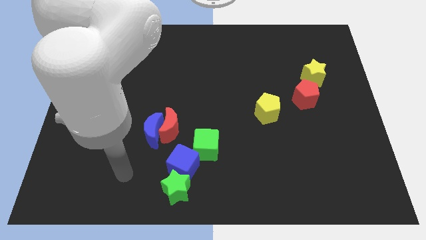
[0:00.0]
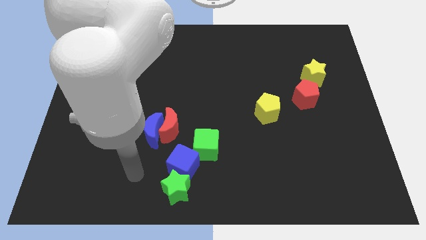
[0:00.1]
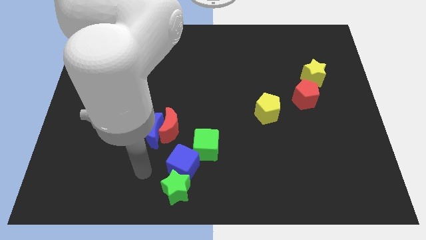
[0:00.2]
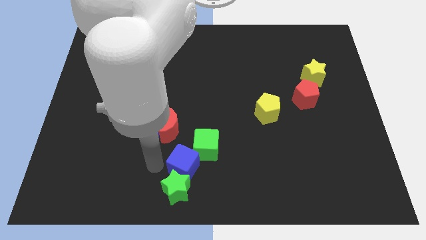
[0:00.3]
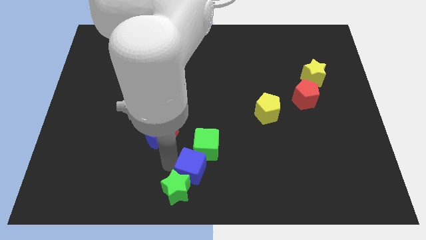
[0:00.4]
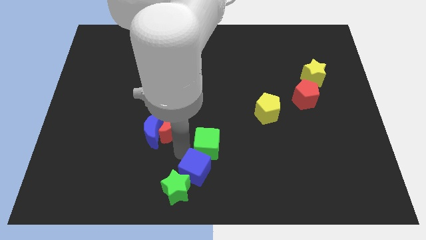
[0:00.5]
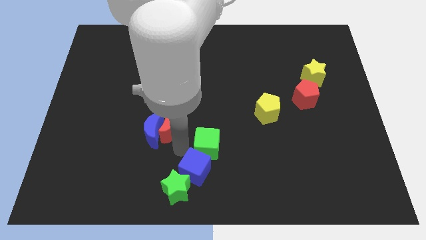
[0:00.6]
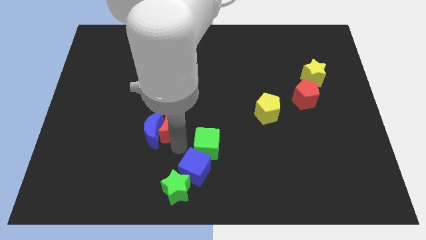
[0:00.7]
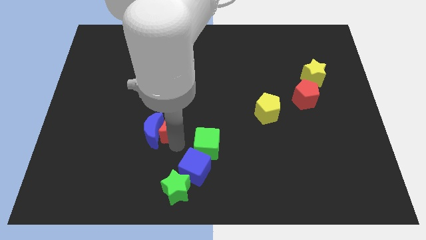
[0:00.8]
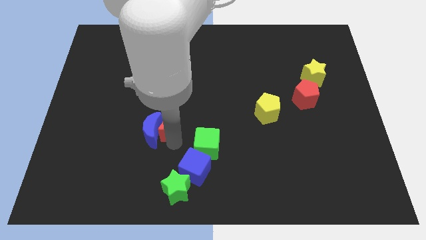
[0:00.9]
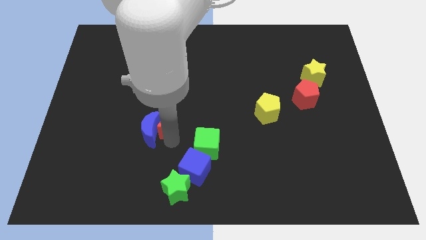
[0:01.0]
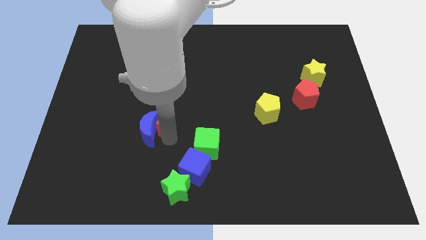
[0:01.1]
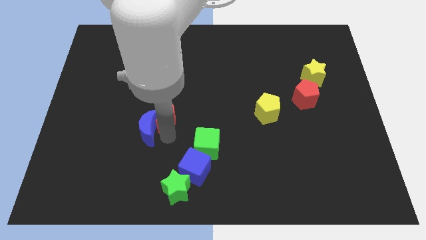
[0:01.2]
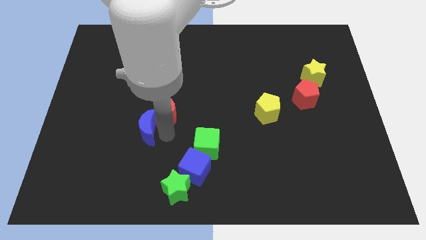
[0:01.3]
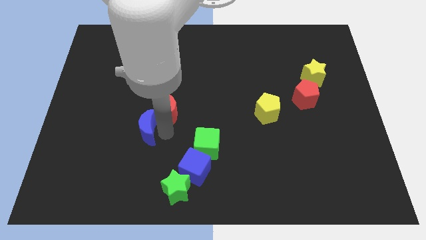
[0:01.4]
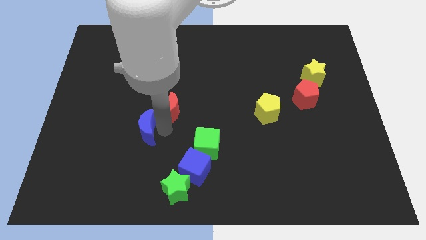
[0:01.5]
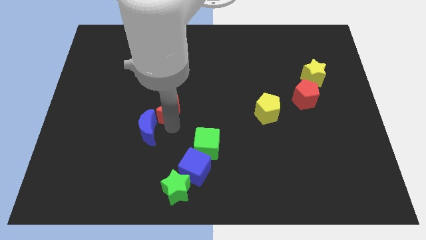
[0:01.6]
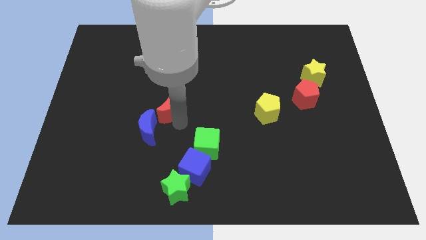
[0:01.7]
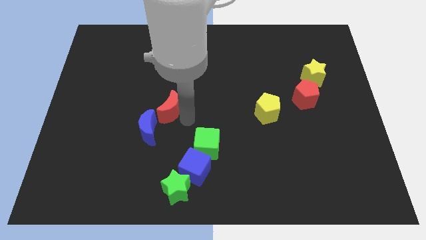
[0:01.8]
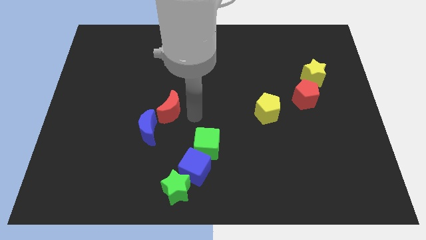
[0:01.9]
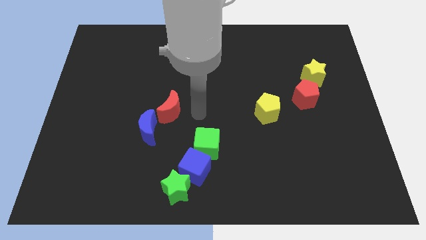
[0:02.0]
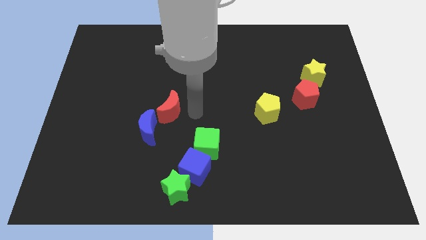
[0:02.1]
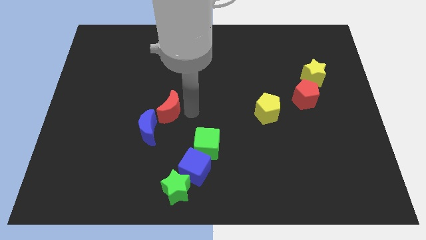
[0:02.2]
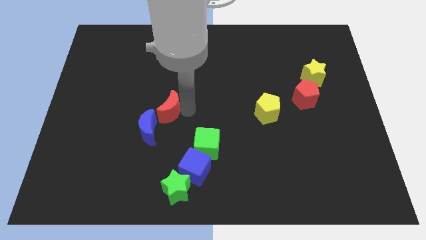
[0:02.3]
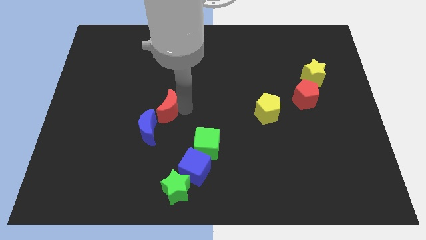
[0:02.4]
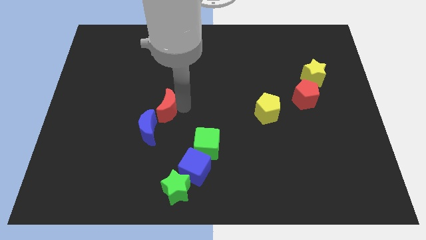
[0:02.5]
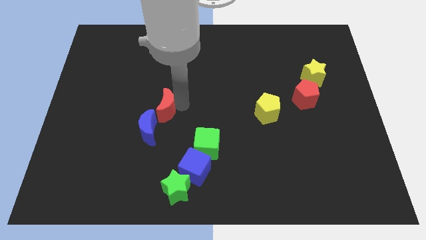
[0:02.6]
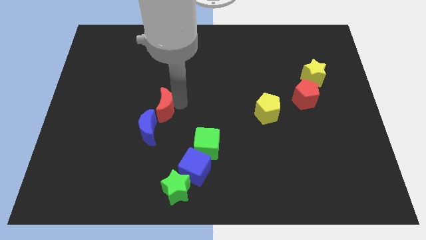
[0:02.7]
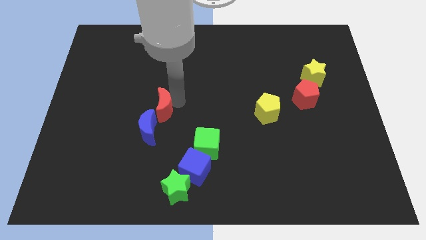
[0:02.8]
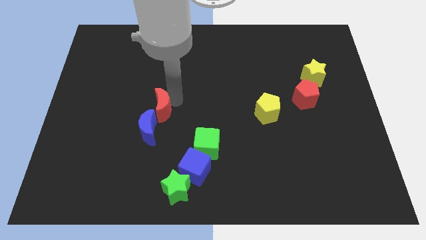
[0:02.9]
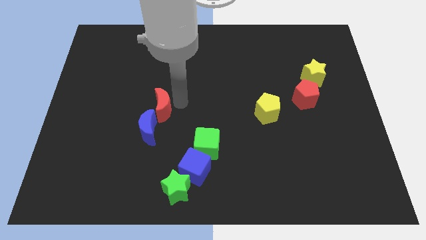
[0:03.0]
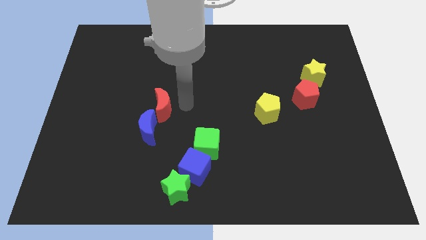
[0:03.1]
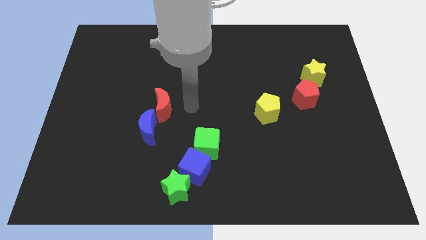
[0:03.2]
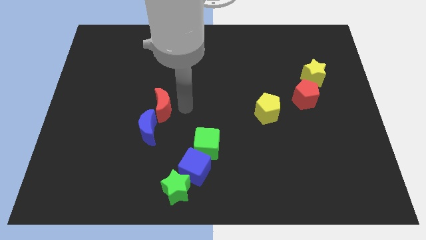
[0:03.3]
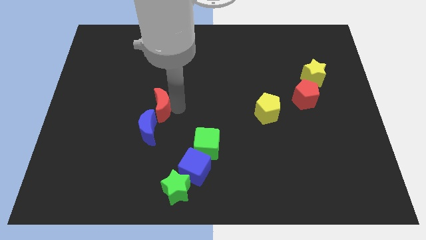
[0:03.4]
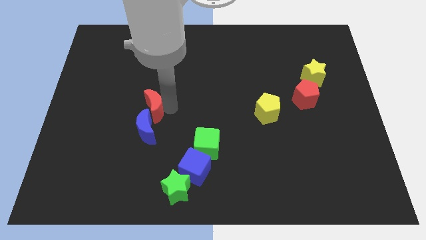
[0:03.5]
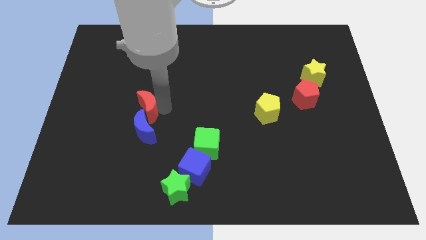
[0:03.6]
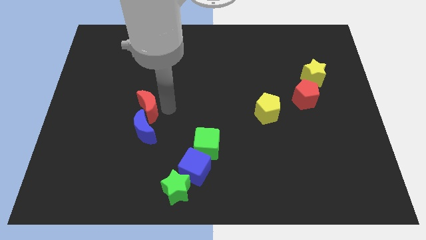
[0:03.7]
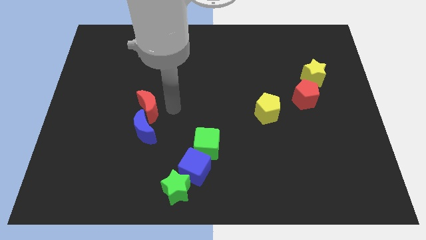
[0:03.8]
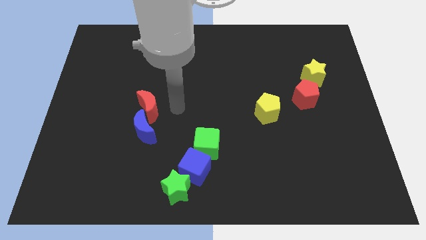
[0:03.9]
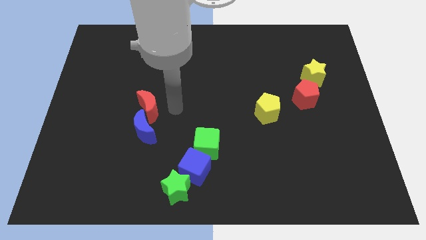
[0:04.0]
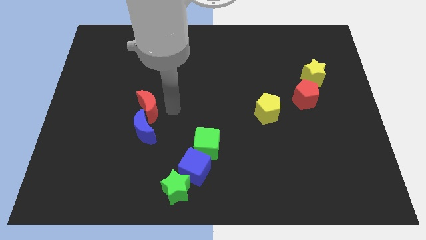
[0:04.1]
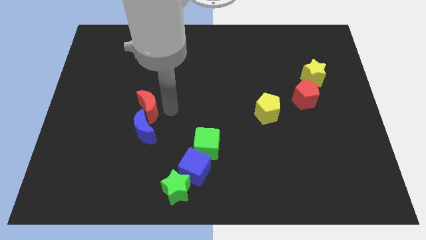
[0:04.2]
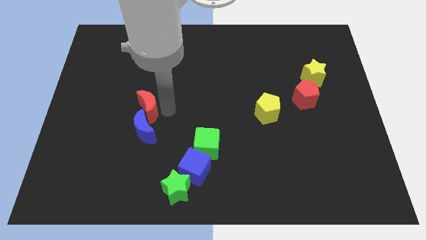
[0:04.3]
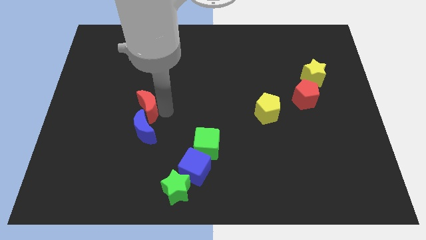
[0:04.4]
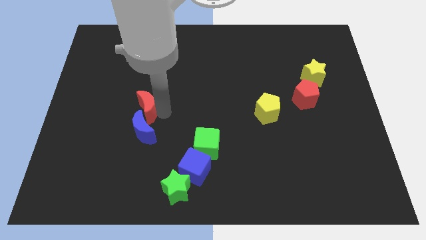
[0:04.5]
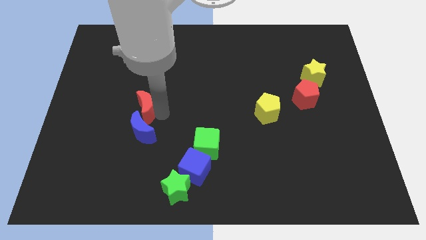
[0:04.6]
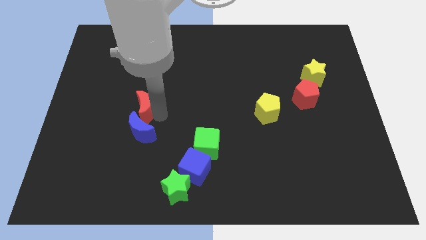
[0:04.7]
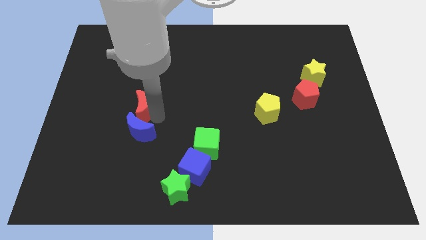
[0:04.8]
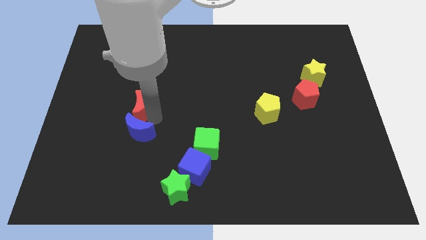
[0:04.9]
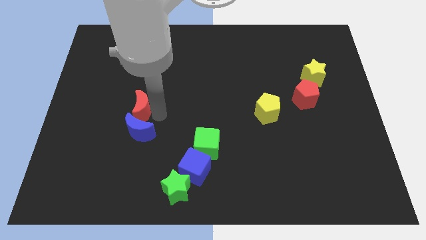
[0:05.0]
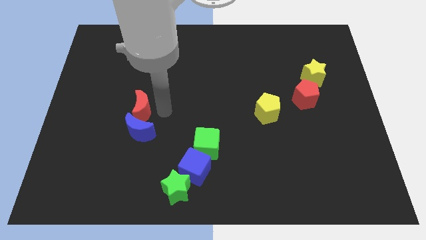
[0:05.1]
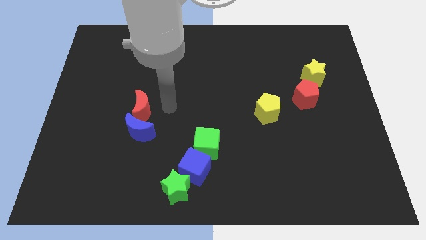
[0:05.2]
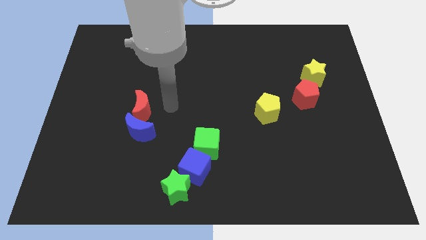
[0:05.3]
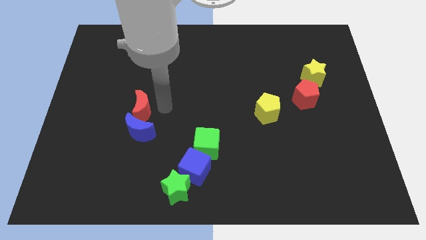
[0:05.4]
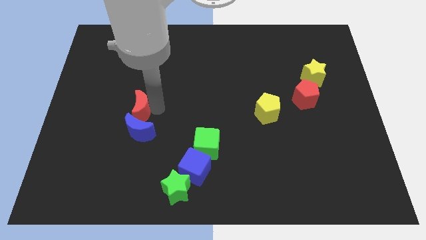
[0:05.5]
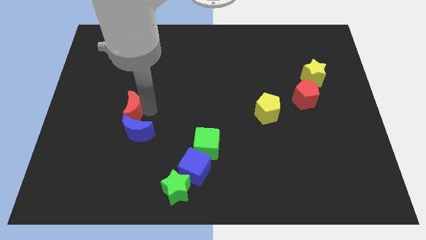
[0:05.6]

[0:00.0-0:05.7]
push the red moon slightly to the left

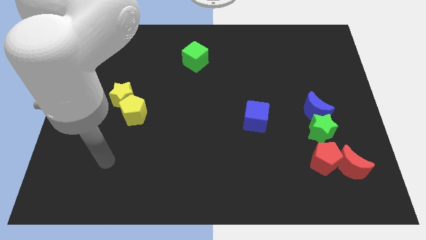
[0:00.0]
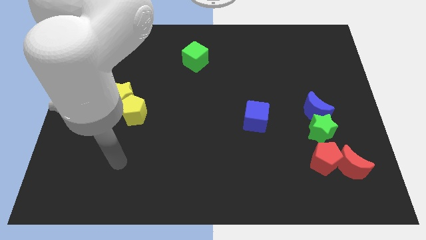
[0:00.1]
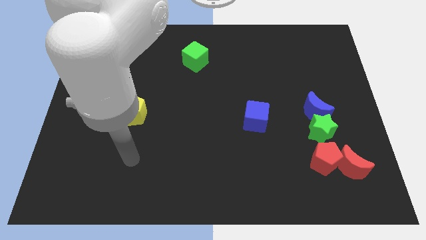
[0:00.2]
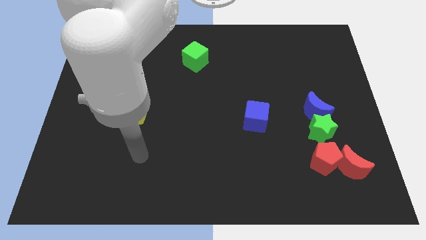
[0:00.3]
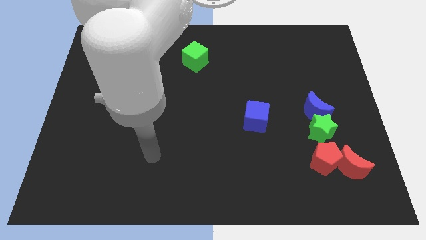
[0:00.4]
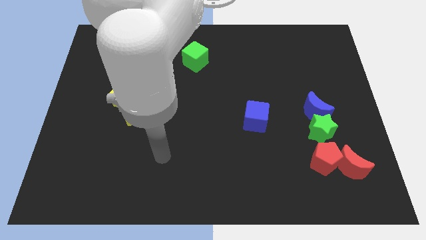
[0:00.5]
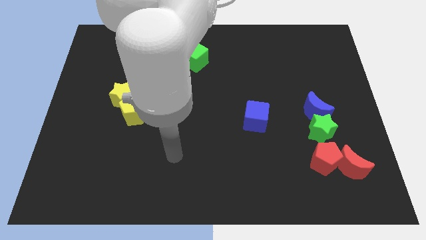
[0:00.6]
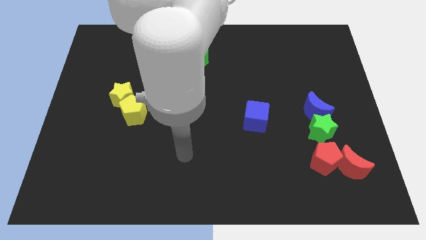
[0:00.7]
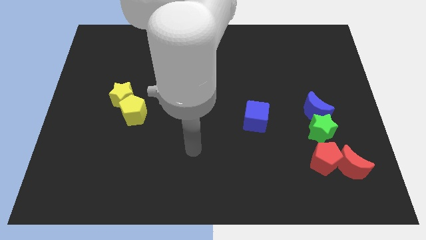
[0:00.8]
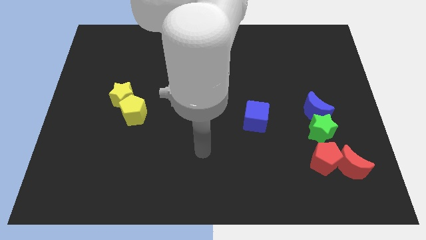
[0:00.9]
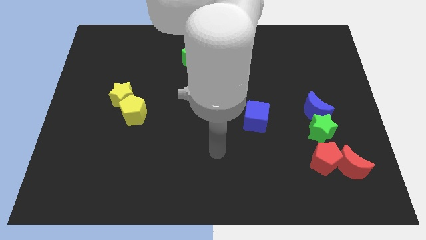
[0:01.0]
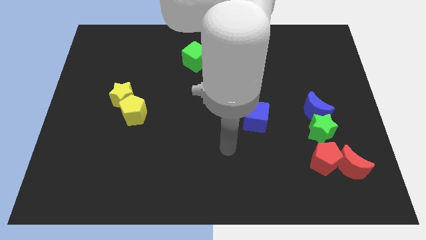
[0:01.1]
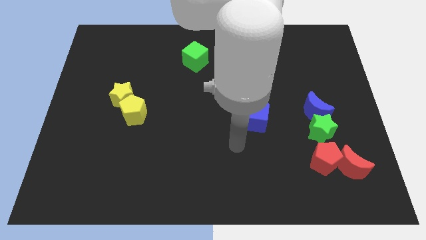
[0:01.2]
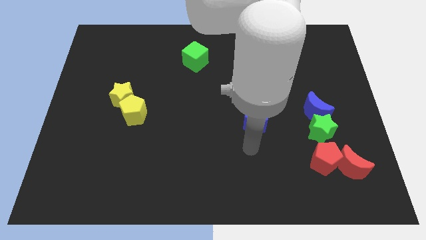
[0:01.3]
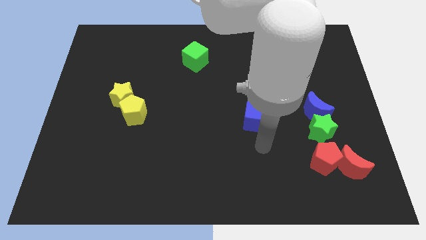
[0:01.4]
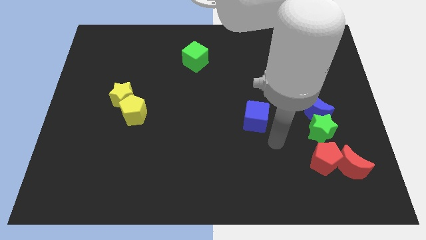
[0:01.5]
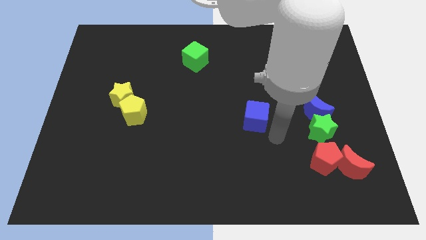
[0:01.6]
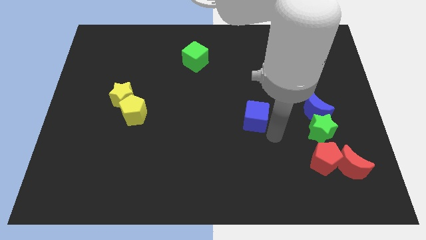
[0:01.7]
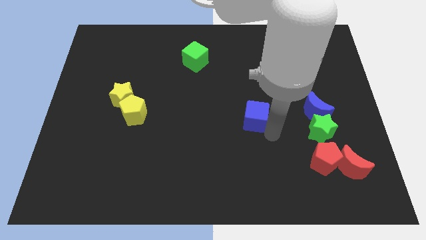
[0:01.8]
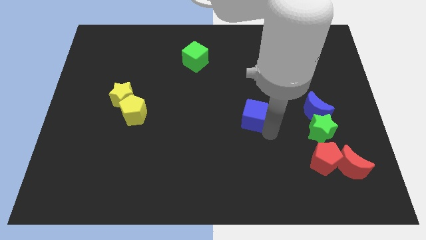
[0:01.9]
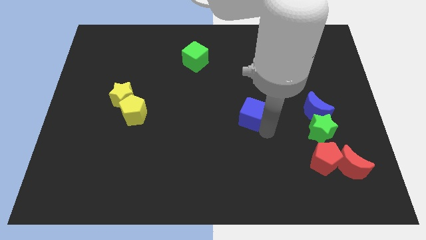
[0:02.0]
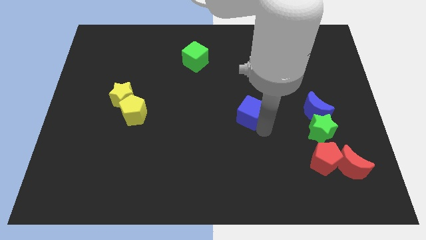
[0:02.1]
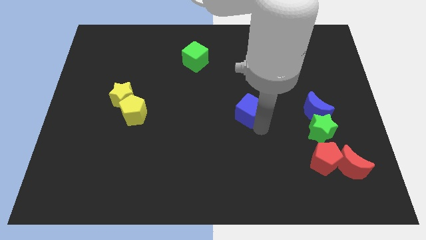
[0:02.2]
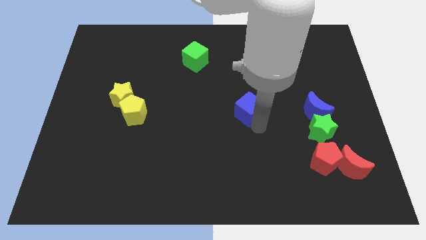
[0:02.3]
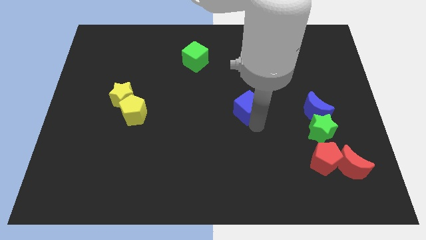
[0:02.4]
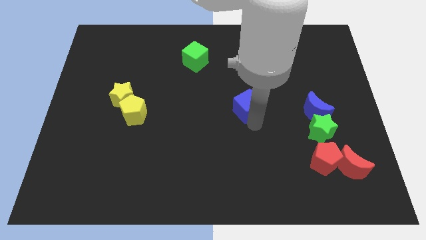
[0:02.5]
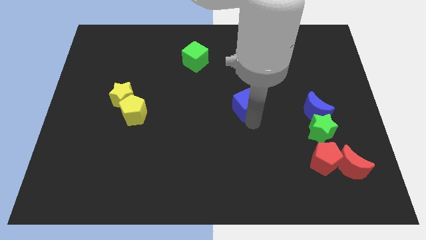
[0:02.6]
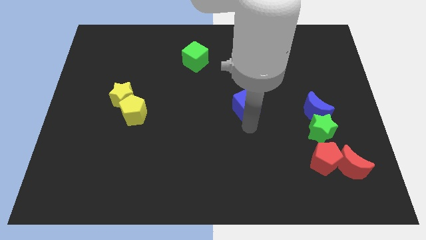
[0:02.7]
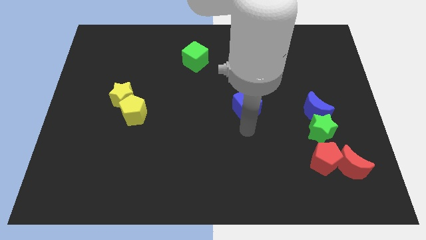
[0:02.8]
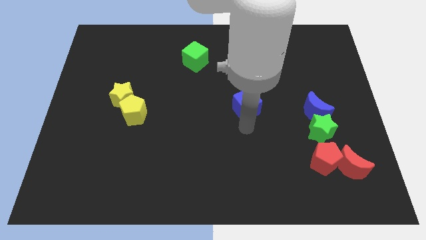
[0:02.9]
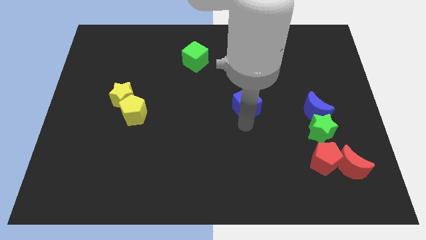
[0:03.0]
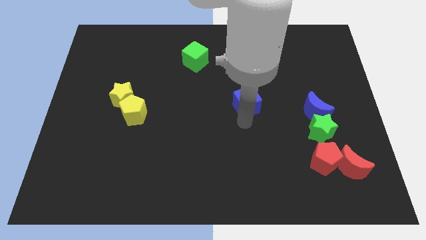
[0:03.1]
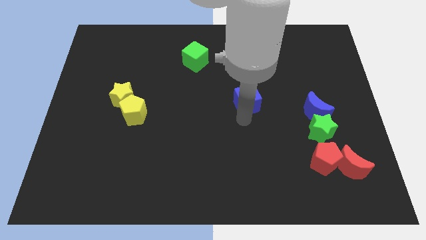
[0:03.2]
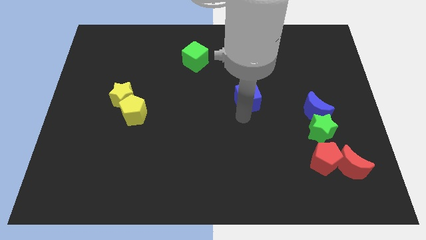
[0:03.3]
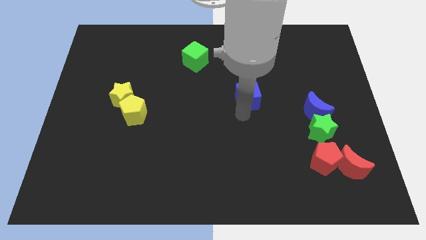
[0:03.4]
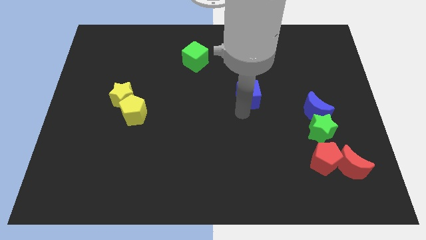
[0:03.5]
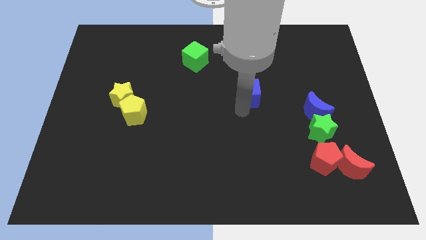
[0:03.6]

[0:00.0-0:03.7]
slide the blue cube a little bit up
